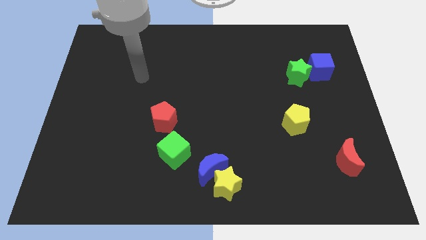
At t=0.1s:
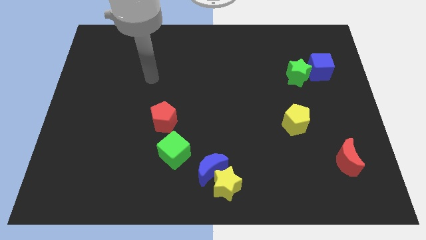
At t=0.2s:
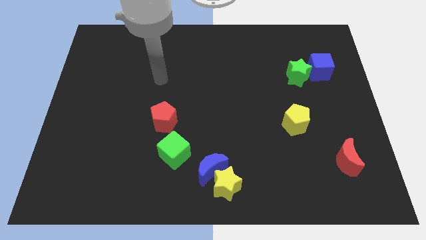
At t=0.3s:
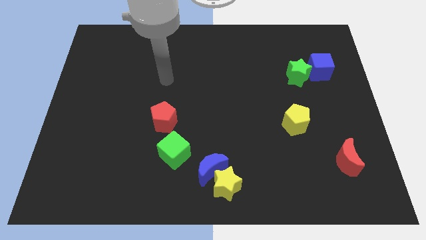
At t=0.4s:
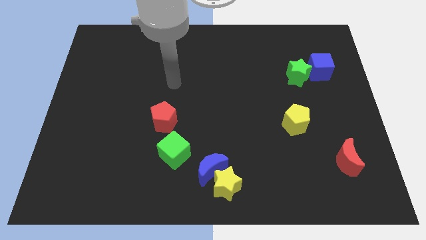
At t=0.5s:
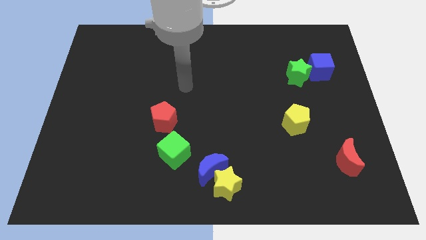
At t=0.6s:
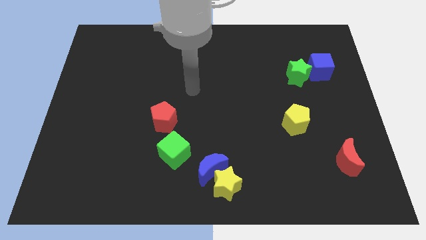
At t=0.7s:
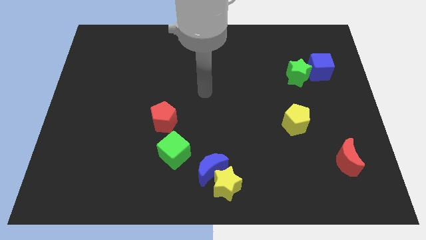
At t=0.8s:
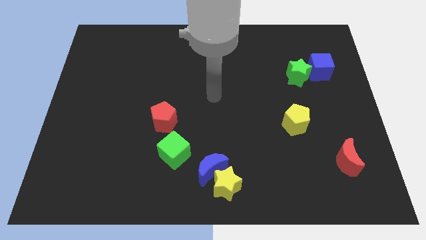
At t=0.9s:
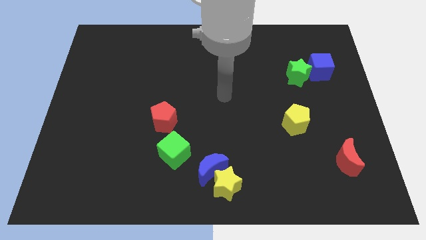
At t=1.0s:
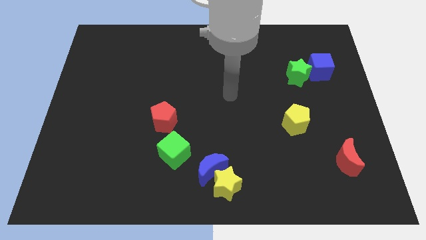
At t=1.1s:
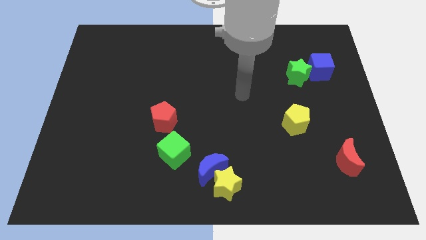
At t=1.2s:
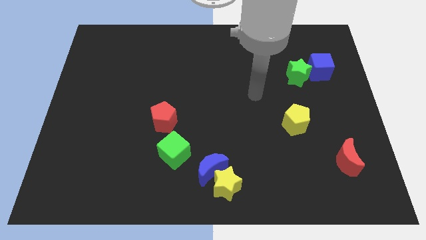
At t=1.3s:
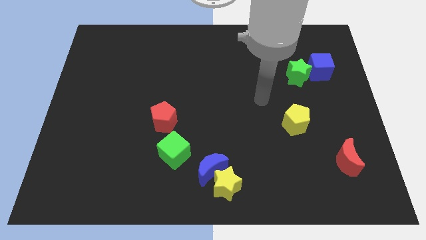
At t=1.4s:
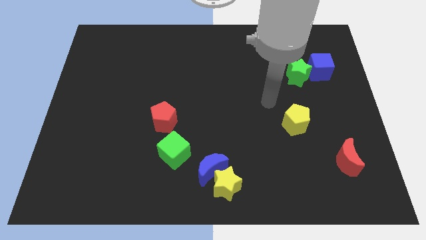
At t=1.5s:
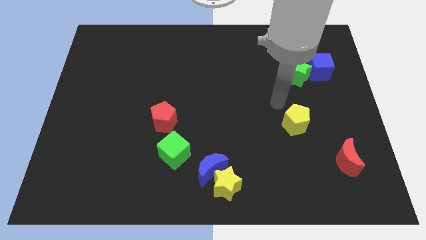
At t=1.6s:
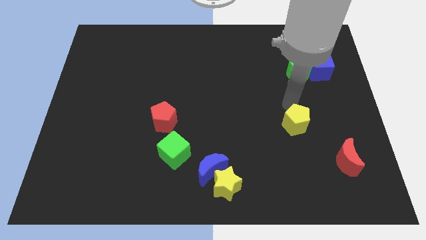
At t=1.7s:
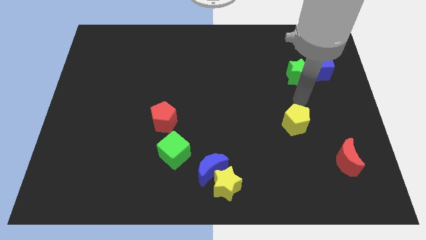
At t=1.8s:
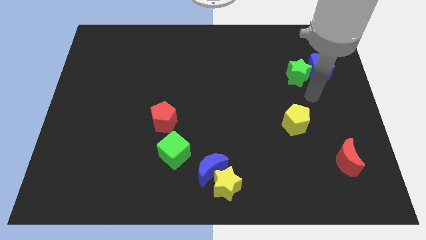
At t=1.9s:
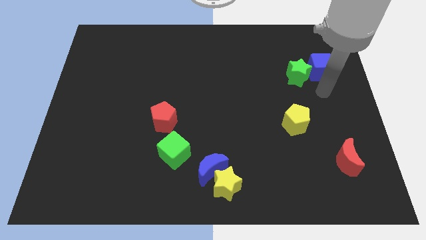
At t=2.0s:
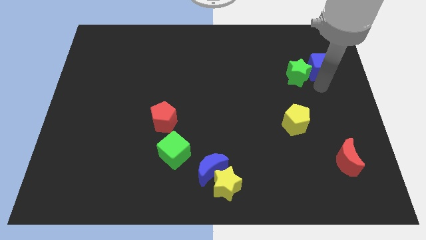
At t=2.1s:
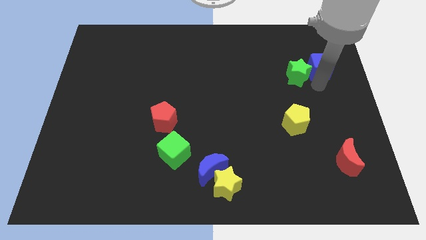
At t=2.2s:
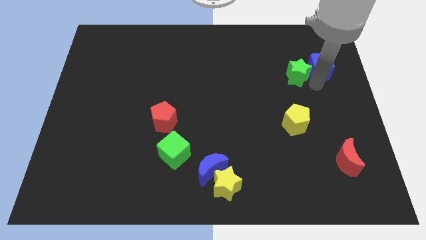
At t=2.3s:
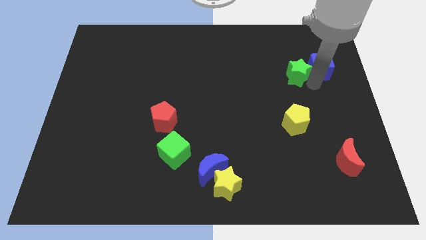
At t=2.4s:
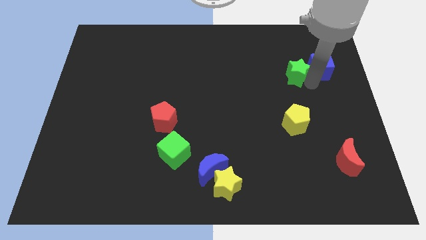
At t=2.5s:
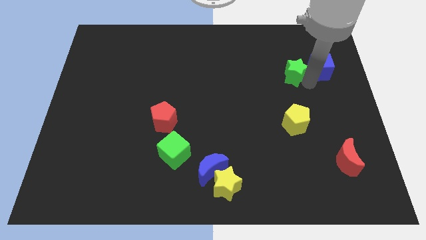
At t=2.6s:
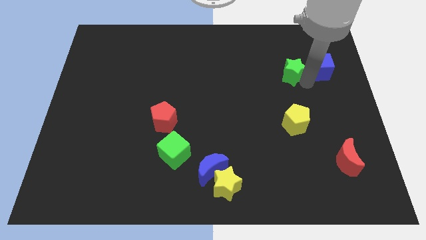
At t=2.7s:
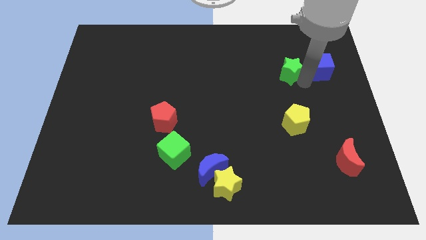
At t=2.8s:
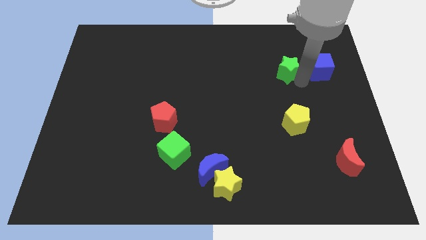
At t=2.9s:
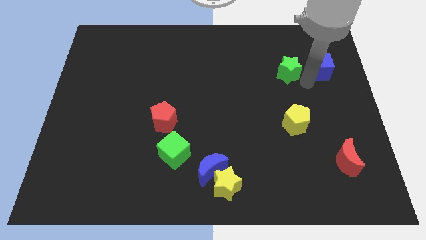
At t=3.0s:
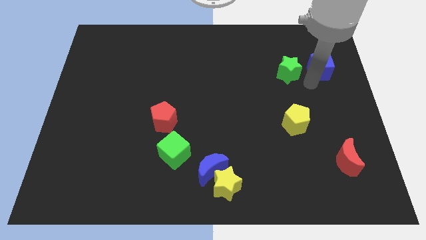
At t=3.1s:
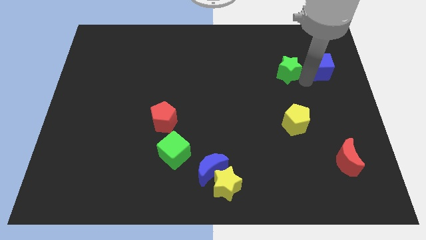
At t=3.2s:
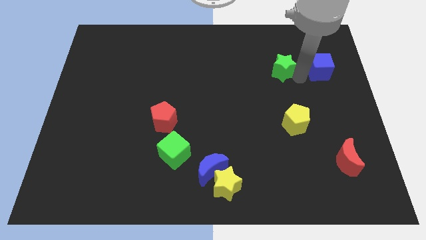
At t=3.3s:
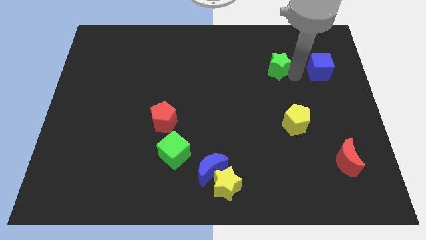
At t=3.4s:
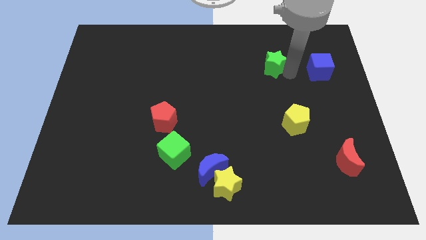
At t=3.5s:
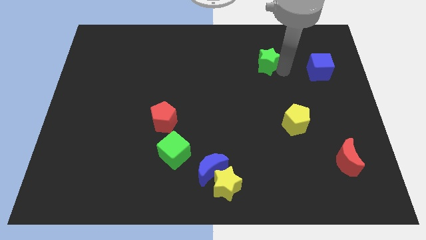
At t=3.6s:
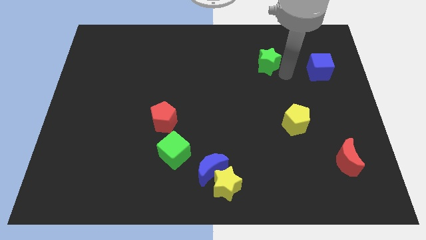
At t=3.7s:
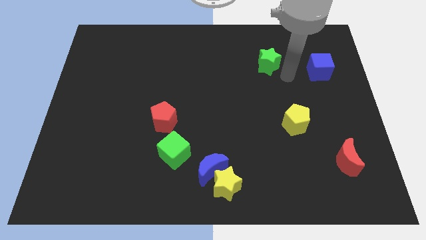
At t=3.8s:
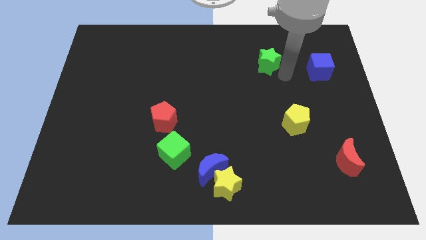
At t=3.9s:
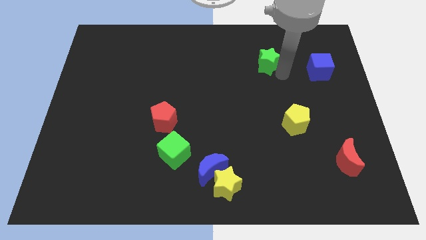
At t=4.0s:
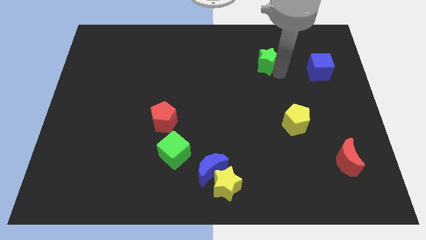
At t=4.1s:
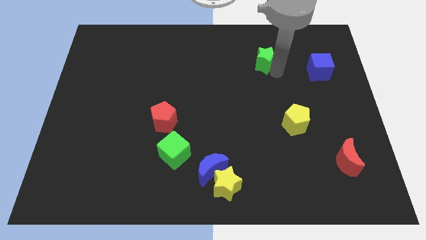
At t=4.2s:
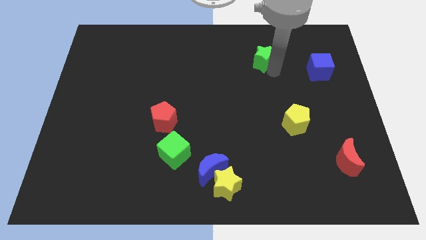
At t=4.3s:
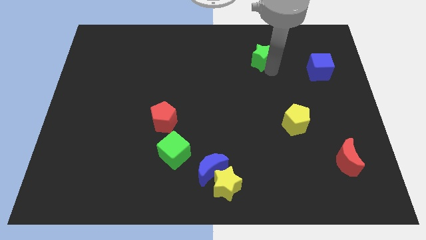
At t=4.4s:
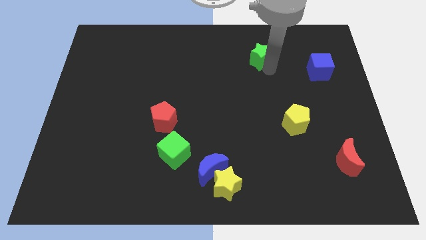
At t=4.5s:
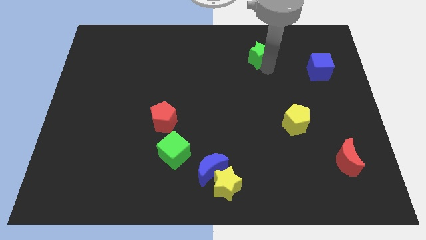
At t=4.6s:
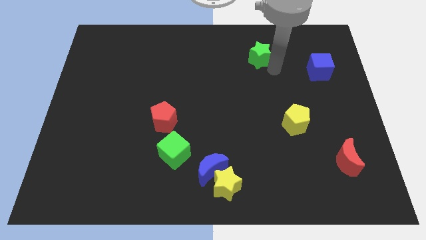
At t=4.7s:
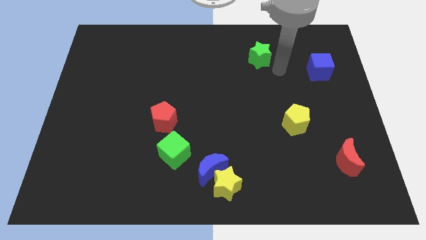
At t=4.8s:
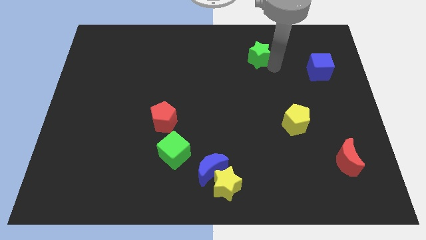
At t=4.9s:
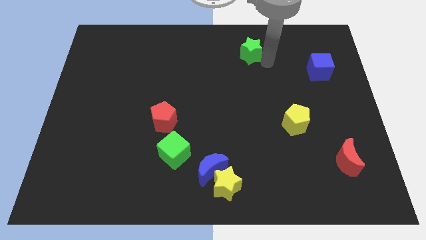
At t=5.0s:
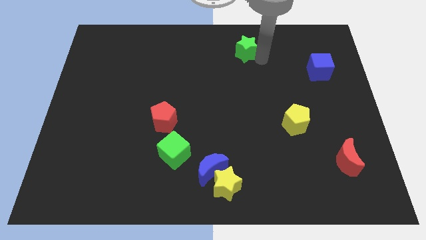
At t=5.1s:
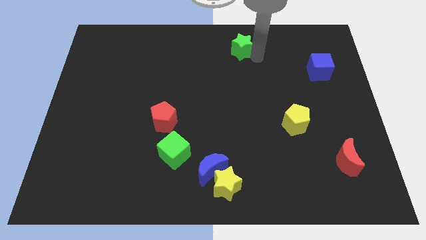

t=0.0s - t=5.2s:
slide the green star to the top
